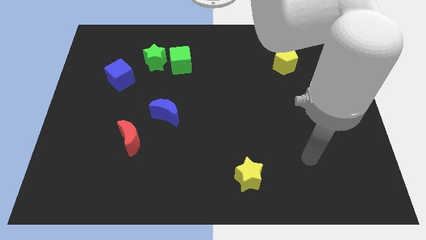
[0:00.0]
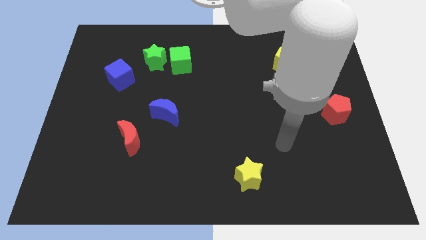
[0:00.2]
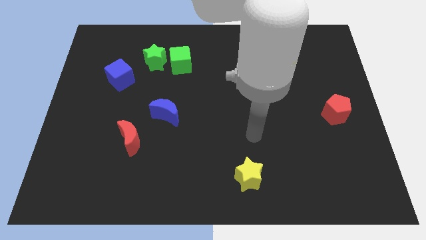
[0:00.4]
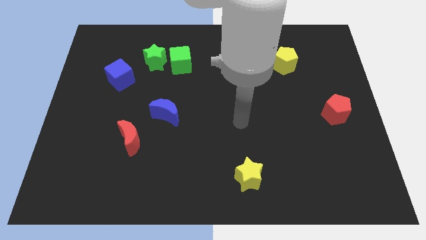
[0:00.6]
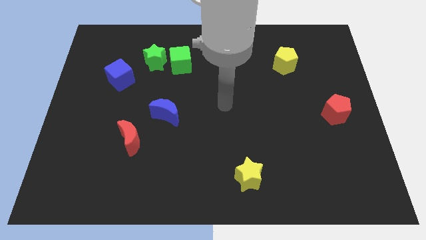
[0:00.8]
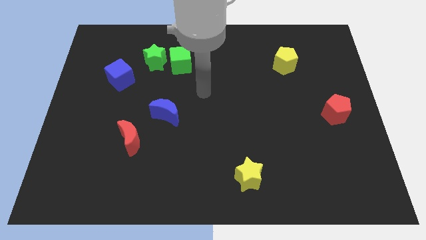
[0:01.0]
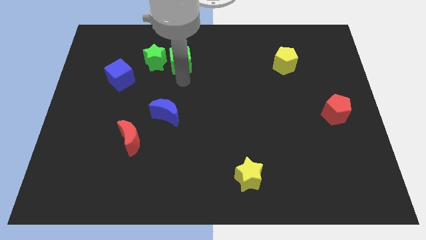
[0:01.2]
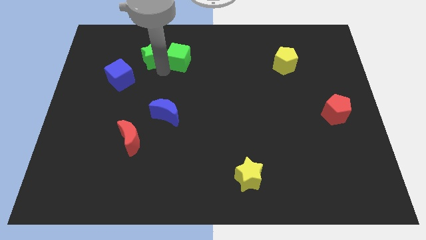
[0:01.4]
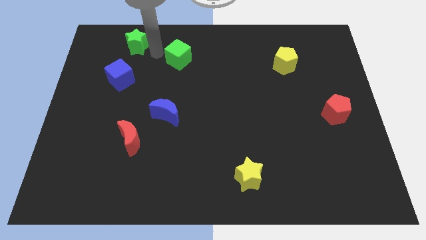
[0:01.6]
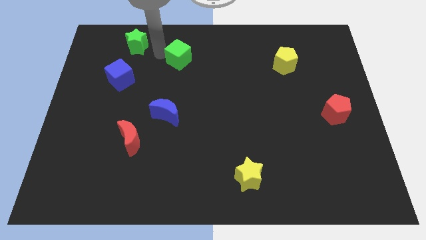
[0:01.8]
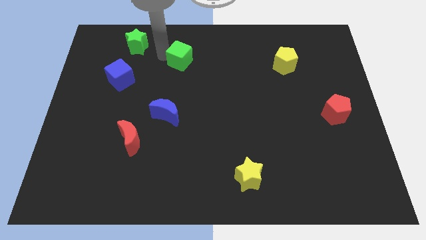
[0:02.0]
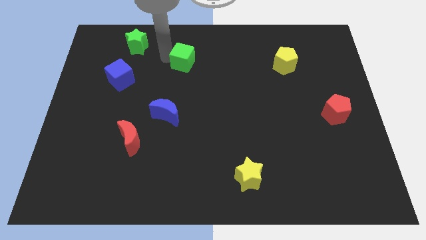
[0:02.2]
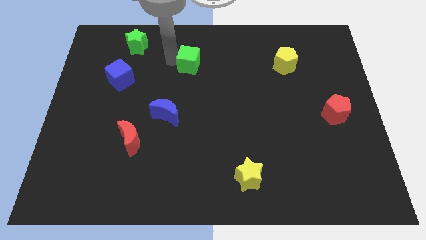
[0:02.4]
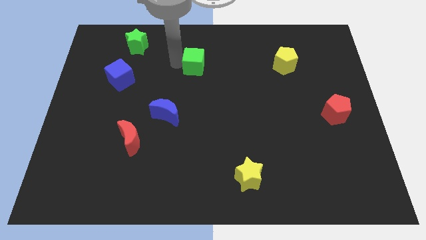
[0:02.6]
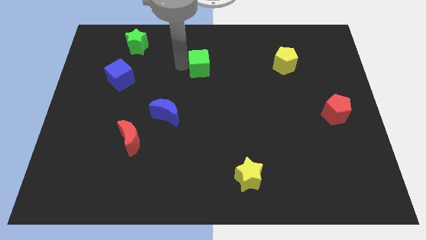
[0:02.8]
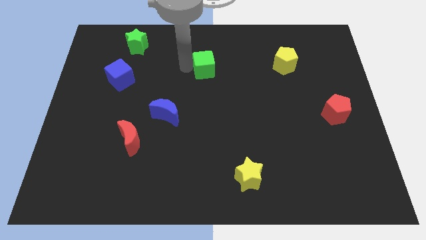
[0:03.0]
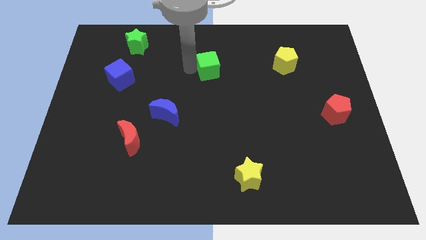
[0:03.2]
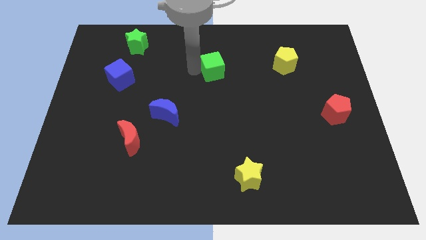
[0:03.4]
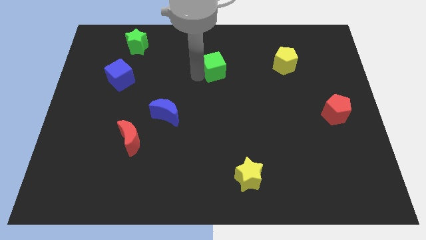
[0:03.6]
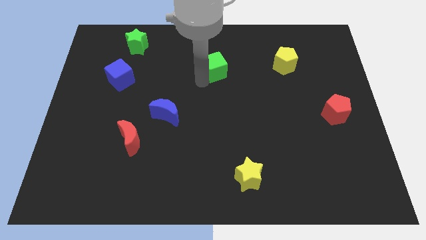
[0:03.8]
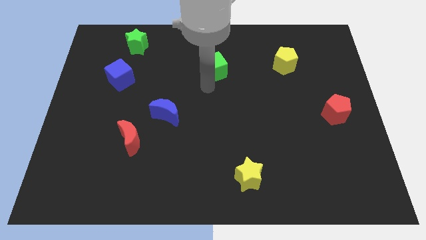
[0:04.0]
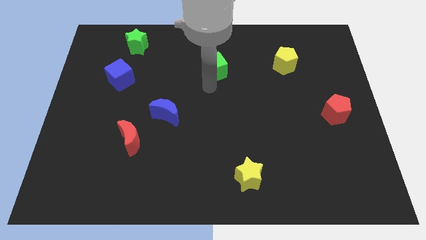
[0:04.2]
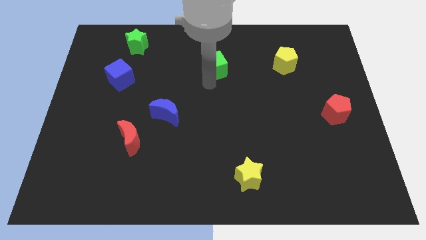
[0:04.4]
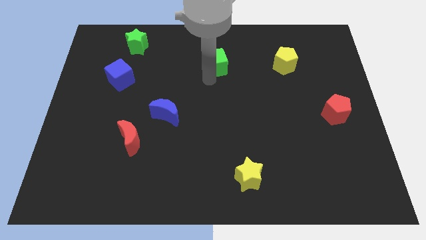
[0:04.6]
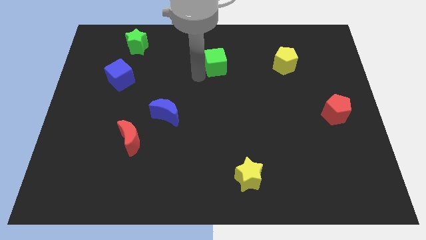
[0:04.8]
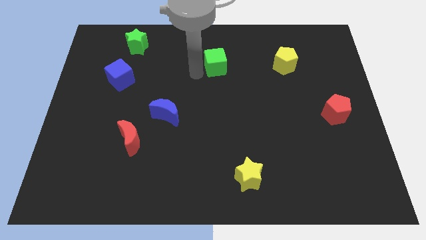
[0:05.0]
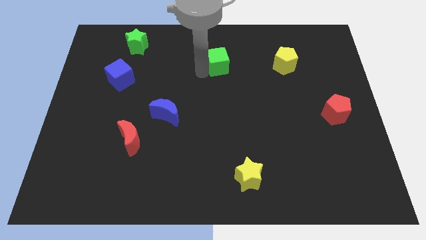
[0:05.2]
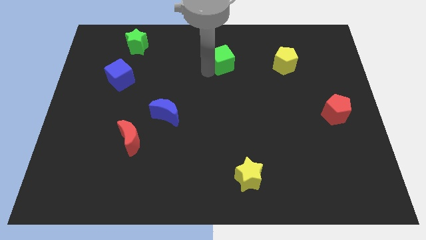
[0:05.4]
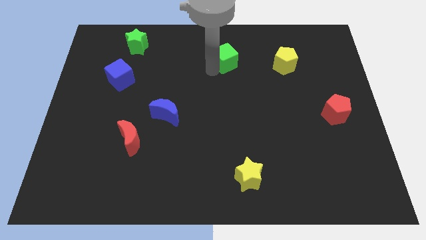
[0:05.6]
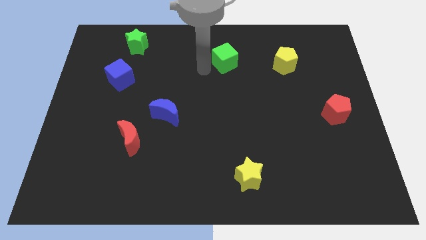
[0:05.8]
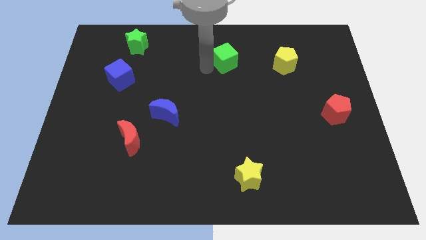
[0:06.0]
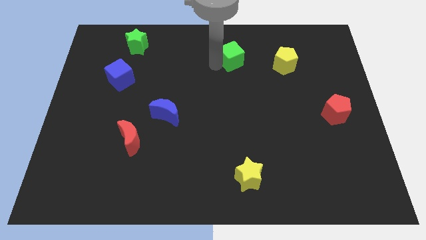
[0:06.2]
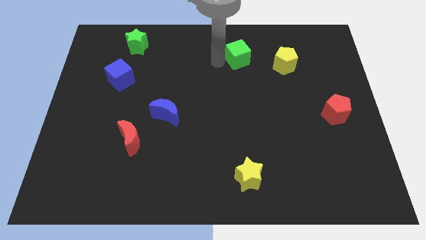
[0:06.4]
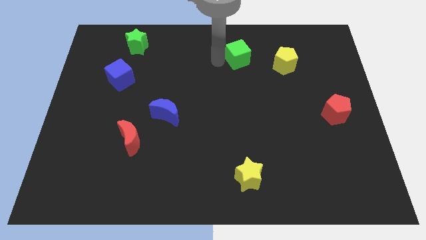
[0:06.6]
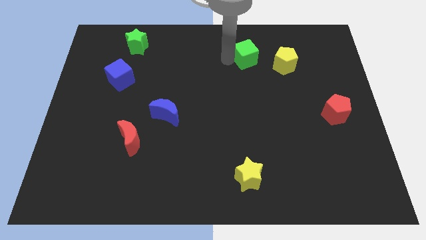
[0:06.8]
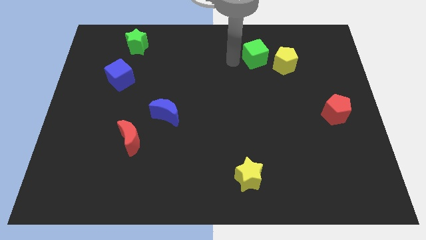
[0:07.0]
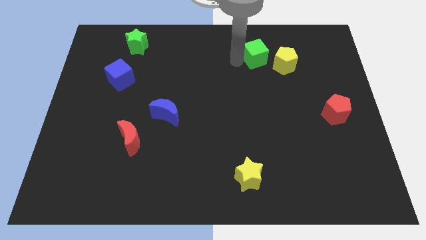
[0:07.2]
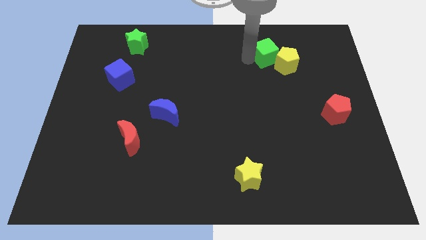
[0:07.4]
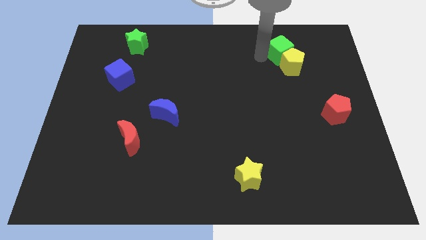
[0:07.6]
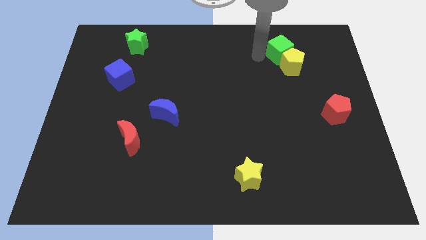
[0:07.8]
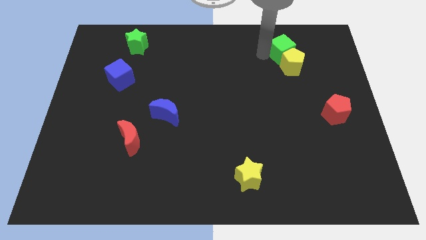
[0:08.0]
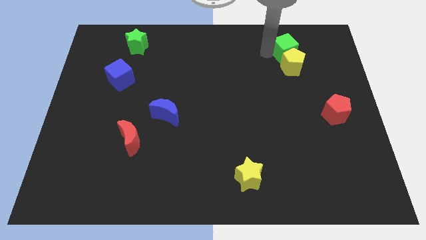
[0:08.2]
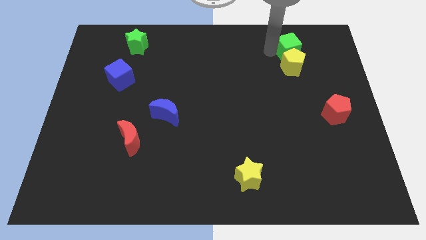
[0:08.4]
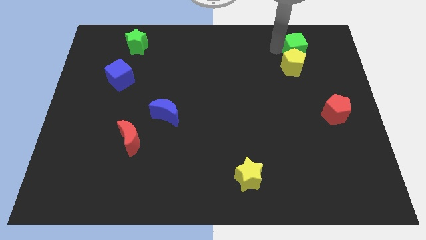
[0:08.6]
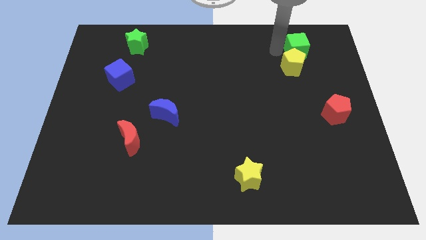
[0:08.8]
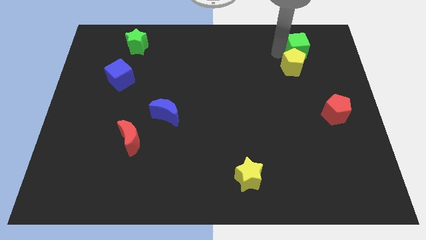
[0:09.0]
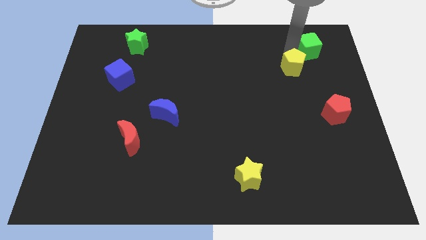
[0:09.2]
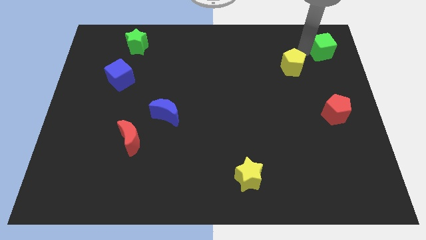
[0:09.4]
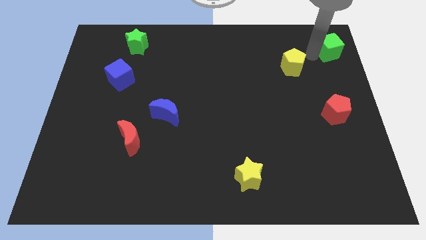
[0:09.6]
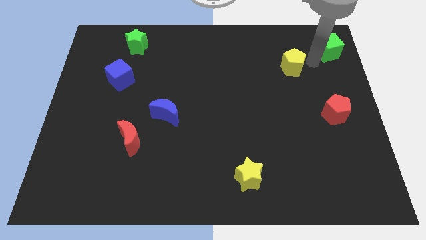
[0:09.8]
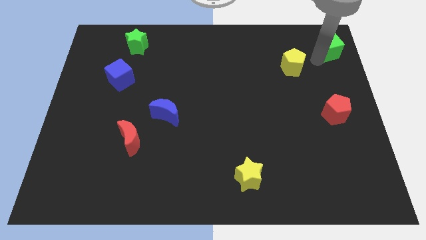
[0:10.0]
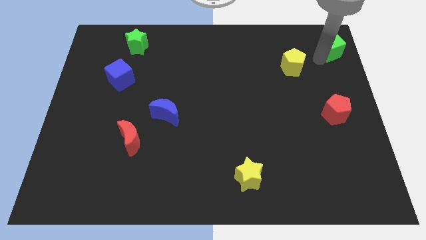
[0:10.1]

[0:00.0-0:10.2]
slide the green cube to the top right

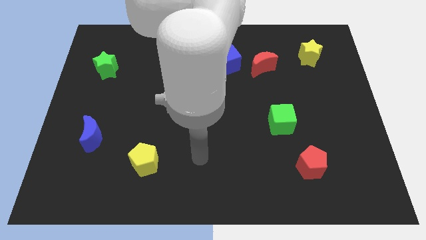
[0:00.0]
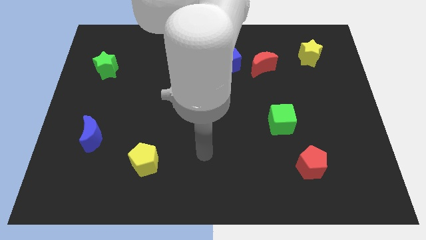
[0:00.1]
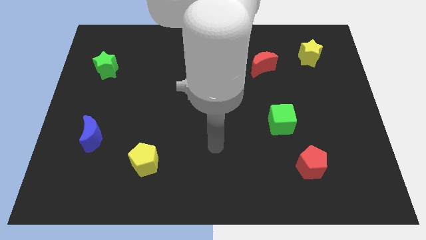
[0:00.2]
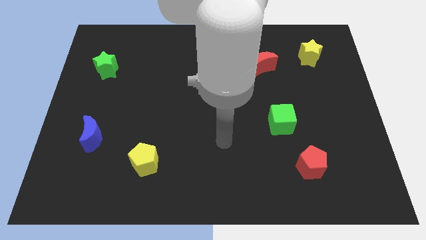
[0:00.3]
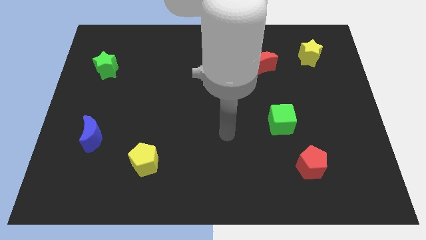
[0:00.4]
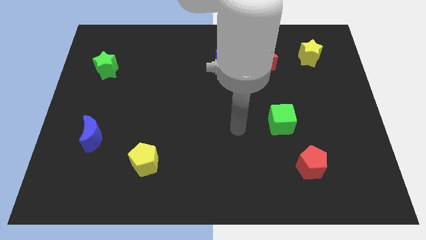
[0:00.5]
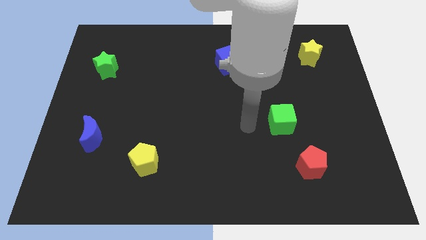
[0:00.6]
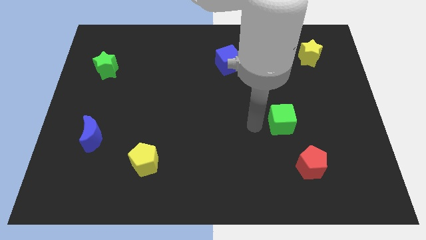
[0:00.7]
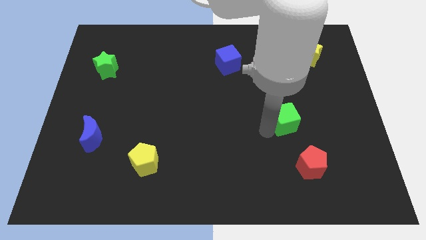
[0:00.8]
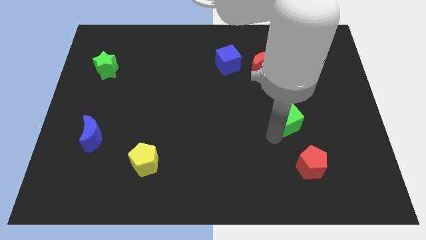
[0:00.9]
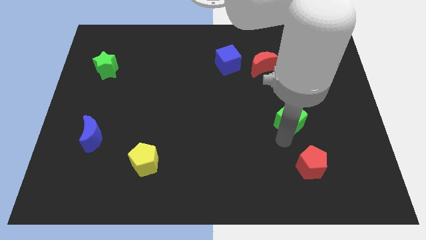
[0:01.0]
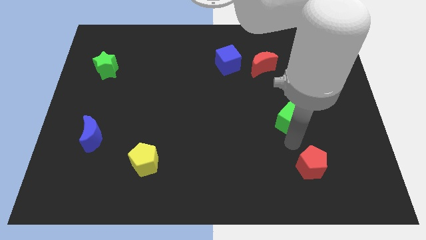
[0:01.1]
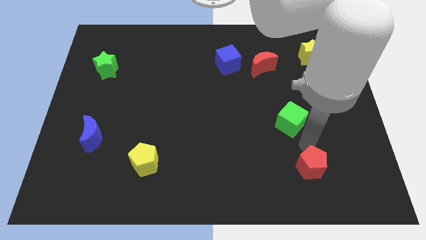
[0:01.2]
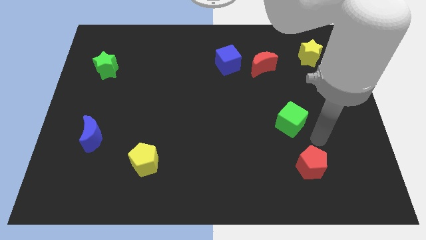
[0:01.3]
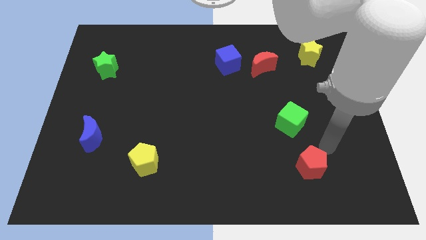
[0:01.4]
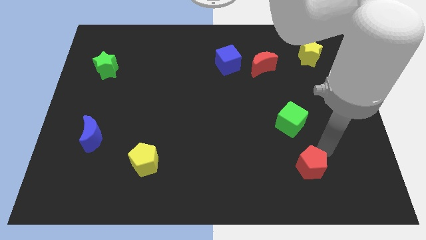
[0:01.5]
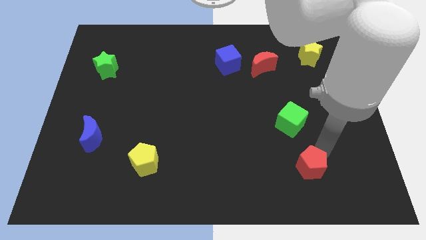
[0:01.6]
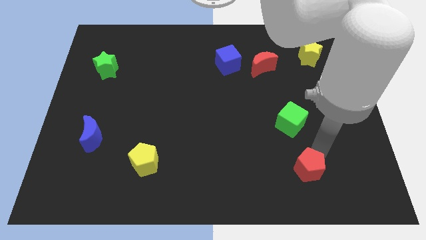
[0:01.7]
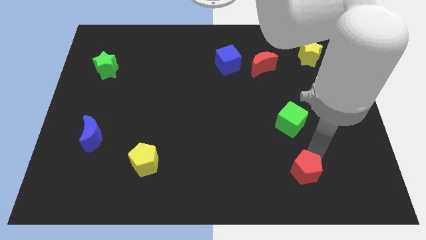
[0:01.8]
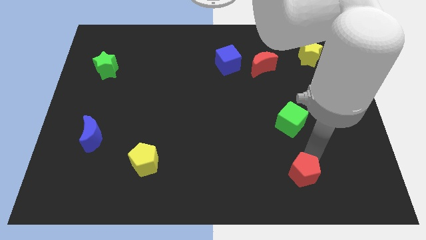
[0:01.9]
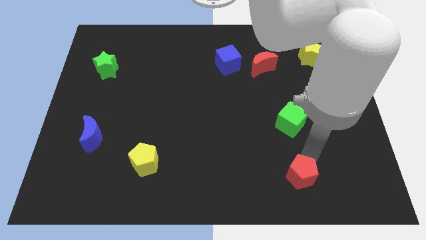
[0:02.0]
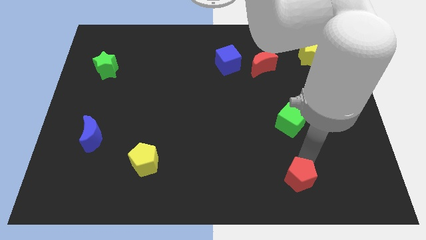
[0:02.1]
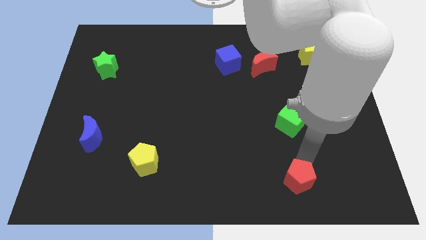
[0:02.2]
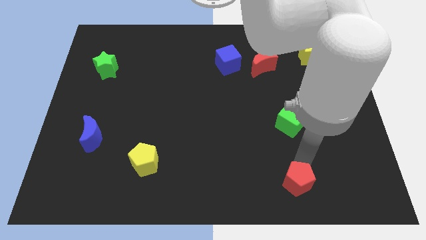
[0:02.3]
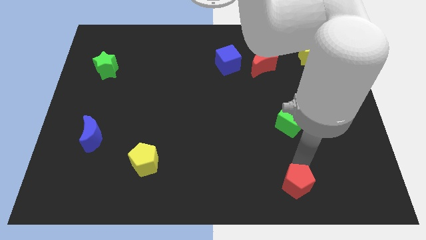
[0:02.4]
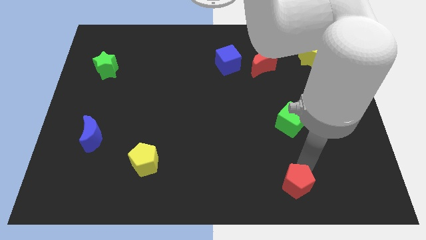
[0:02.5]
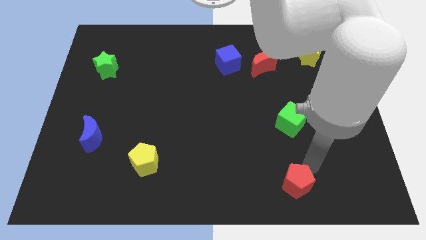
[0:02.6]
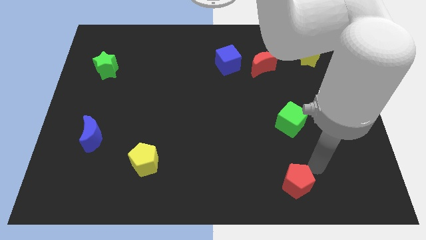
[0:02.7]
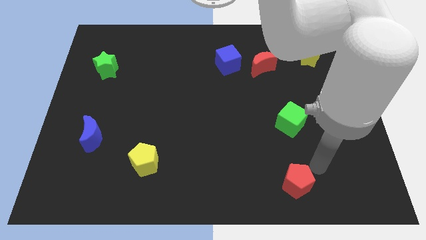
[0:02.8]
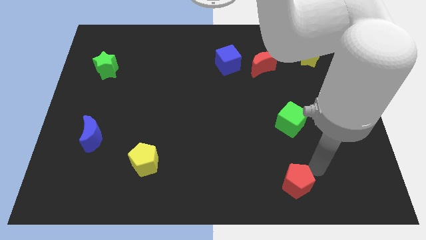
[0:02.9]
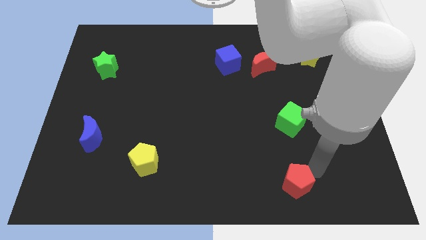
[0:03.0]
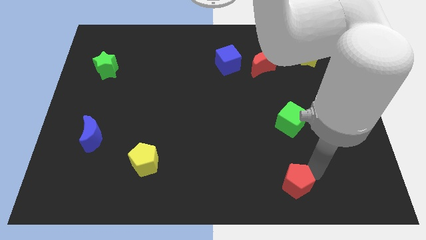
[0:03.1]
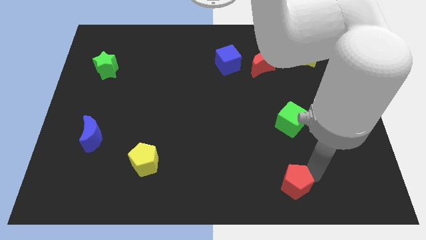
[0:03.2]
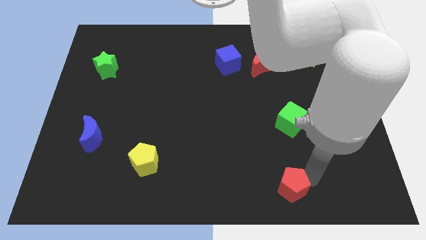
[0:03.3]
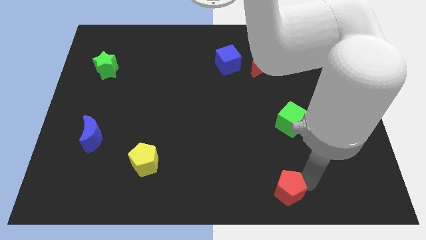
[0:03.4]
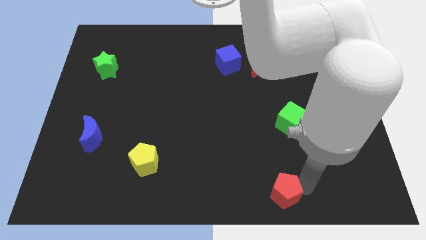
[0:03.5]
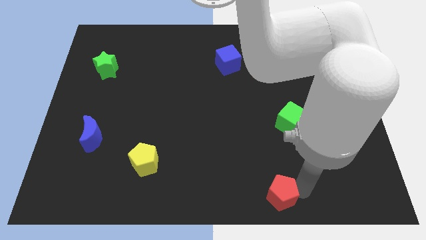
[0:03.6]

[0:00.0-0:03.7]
push the red pentagon to the bottom side
